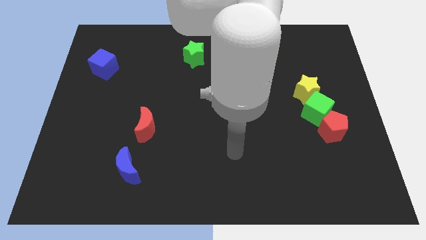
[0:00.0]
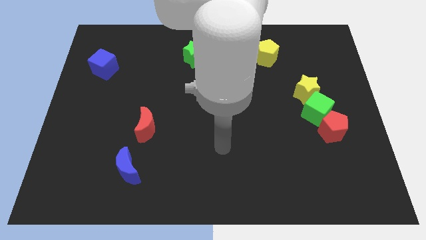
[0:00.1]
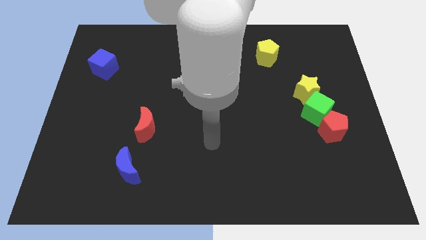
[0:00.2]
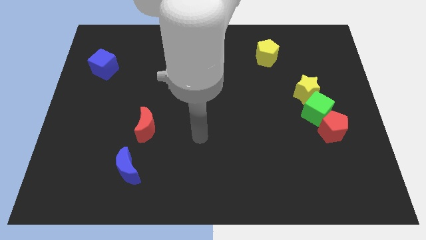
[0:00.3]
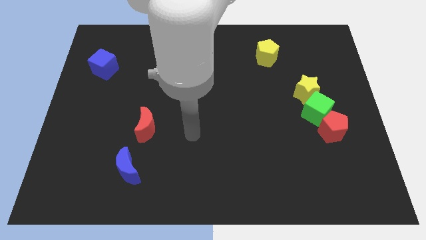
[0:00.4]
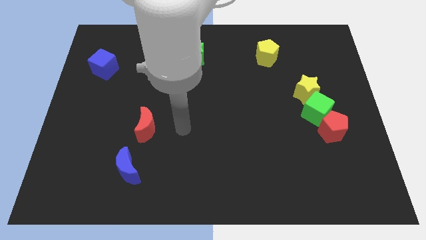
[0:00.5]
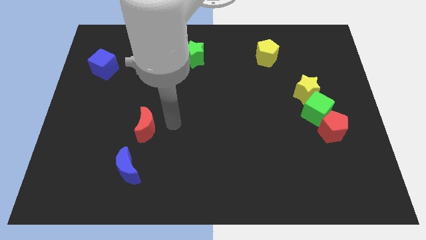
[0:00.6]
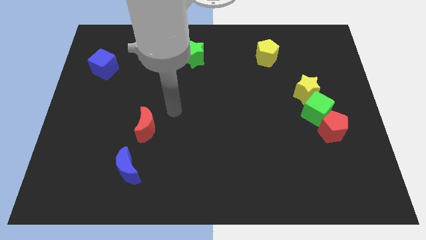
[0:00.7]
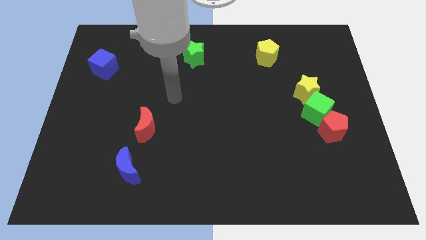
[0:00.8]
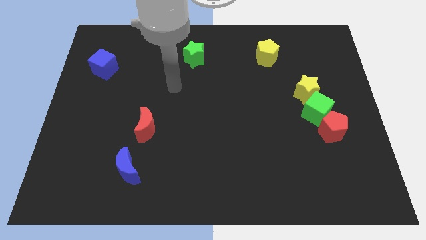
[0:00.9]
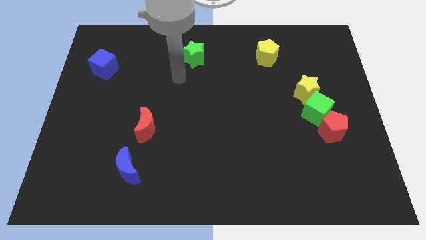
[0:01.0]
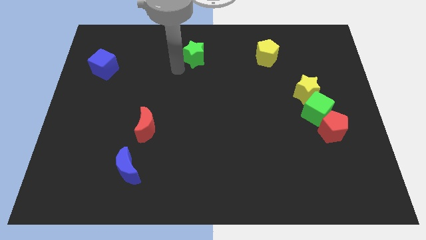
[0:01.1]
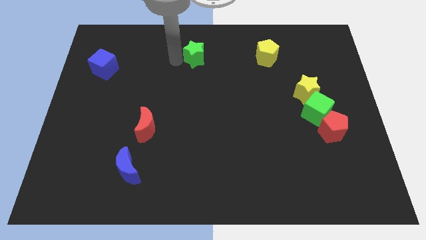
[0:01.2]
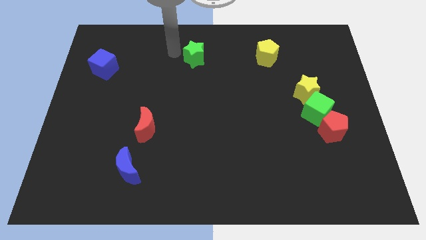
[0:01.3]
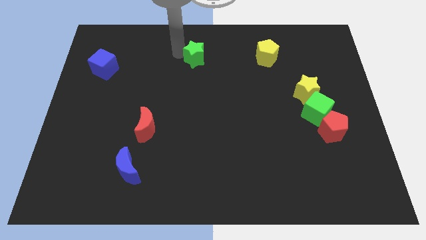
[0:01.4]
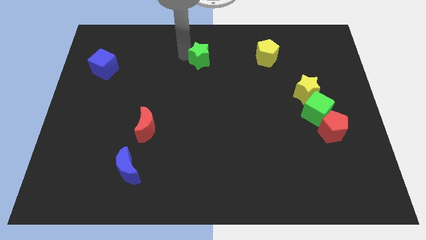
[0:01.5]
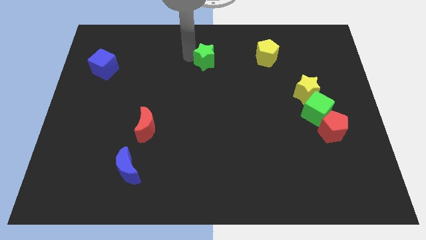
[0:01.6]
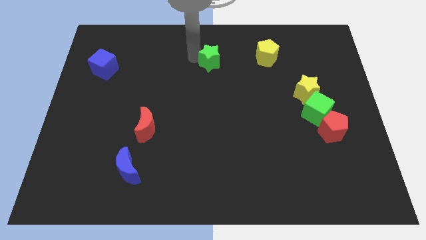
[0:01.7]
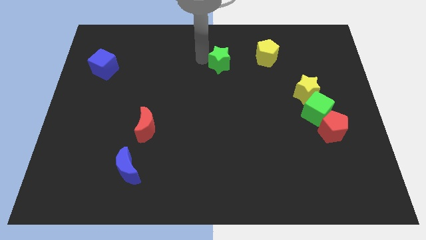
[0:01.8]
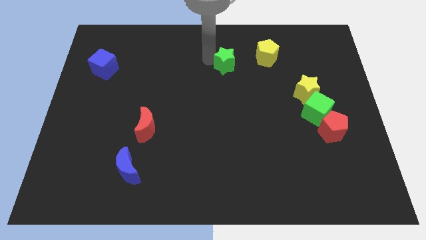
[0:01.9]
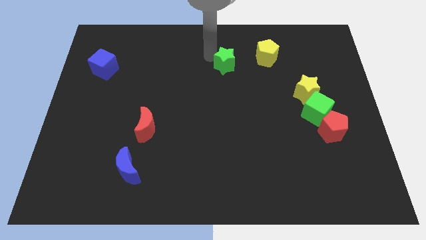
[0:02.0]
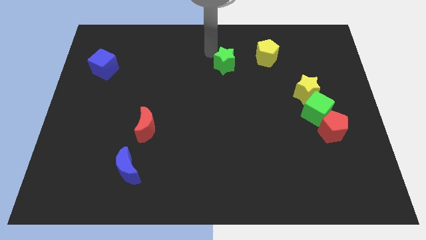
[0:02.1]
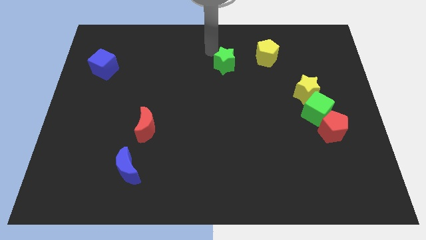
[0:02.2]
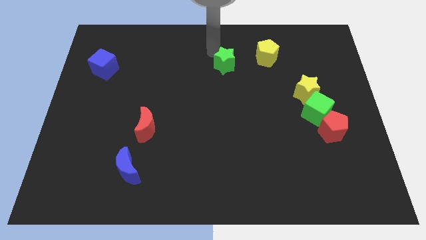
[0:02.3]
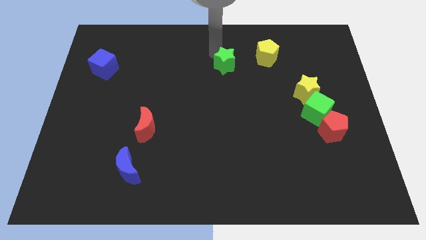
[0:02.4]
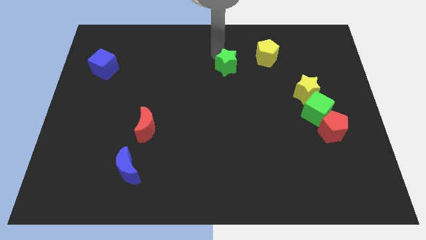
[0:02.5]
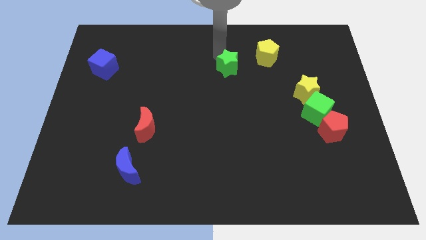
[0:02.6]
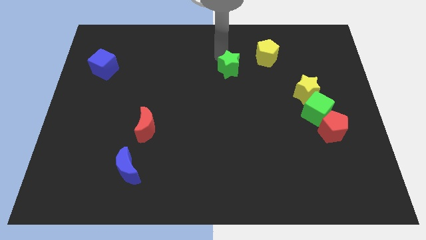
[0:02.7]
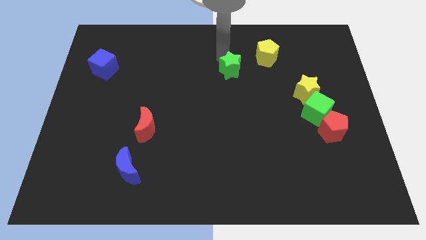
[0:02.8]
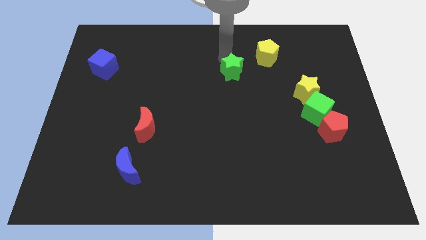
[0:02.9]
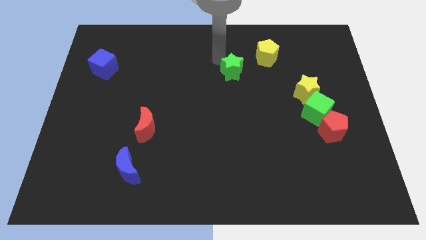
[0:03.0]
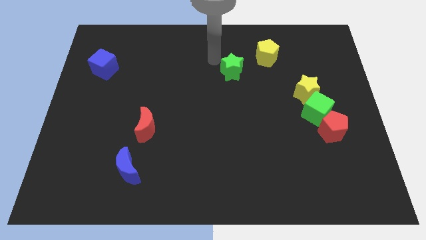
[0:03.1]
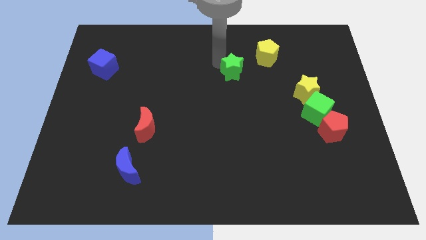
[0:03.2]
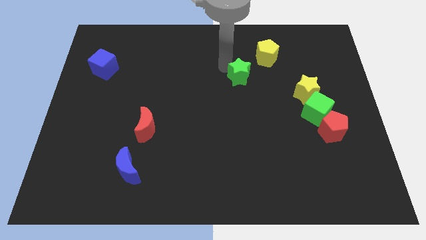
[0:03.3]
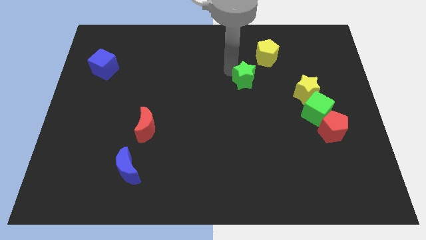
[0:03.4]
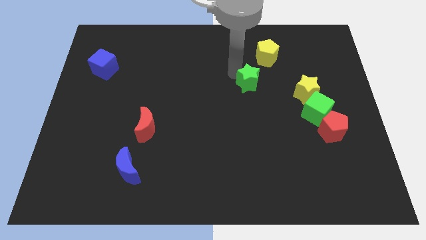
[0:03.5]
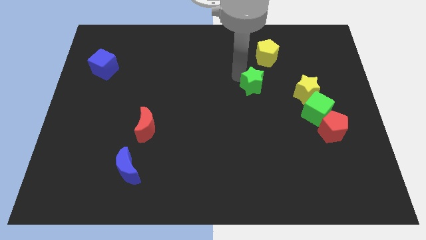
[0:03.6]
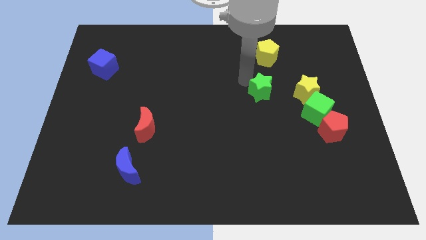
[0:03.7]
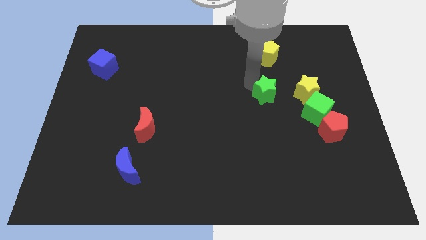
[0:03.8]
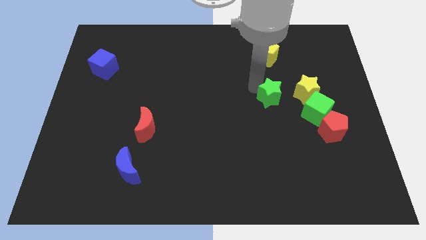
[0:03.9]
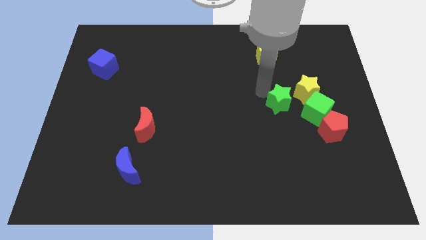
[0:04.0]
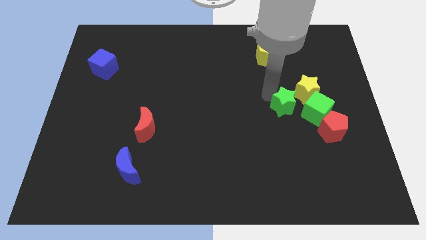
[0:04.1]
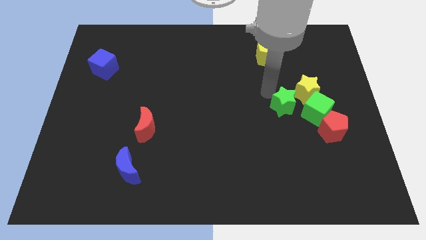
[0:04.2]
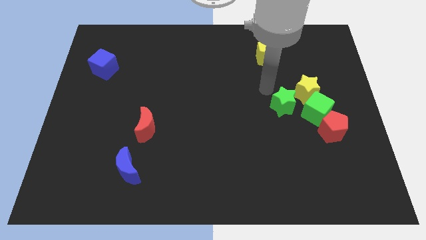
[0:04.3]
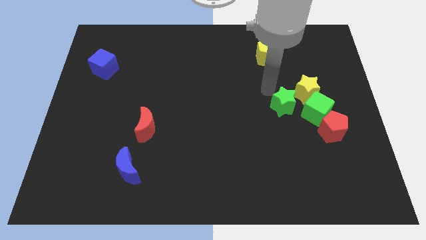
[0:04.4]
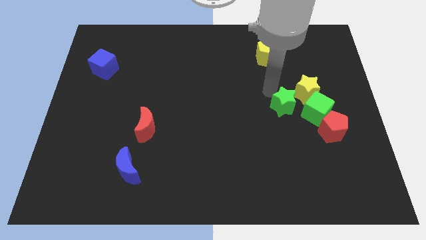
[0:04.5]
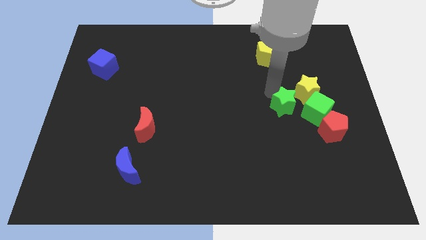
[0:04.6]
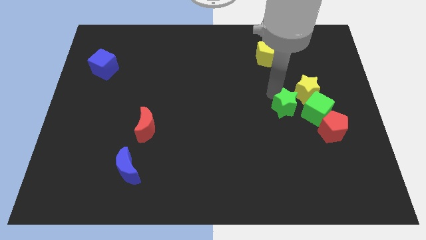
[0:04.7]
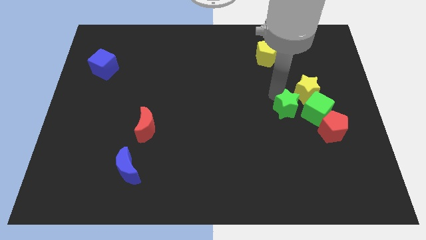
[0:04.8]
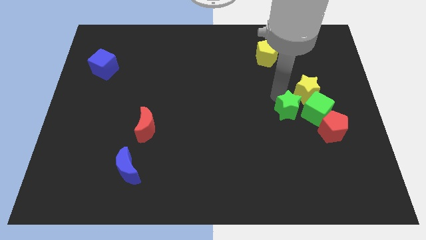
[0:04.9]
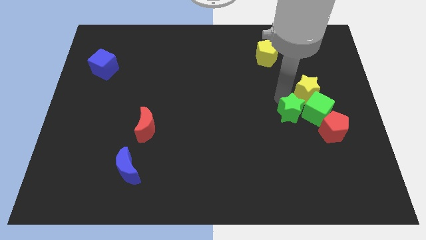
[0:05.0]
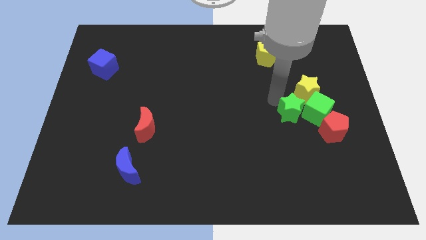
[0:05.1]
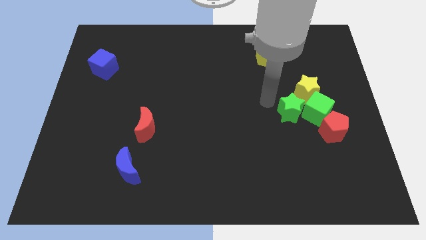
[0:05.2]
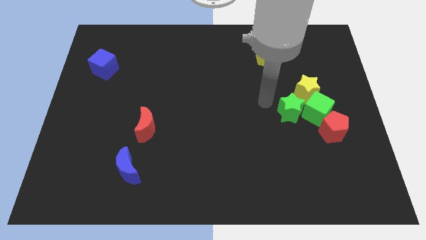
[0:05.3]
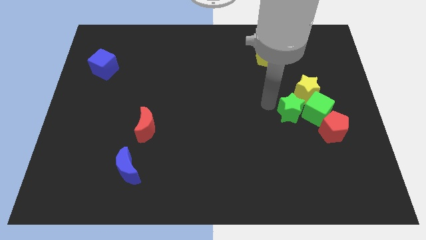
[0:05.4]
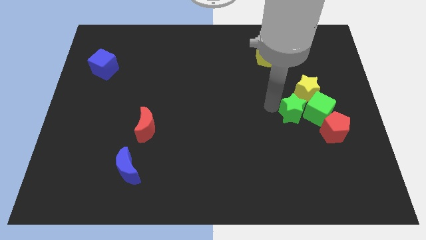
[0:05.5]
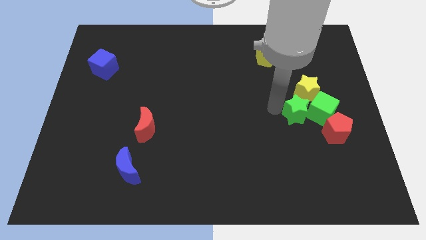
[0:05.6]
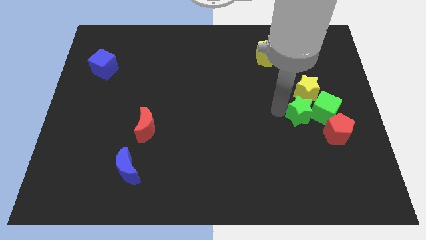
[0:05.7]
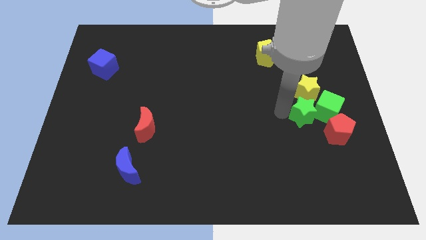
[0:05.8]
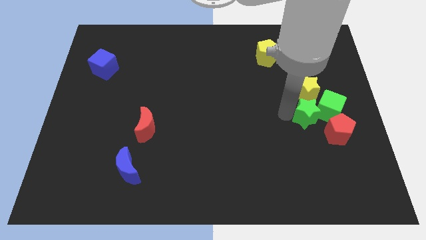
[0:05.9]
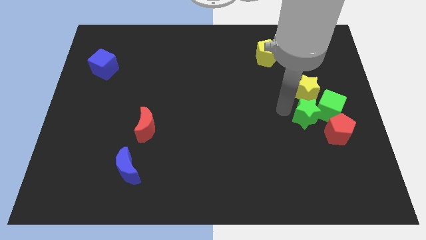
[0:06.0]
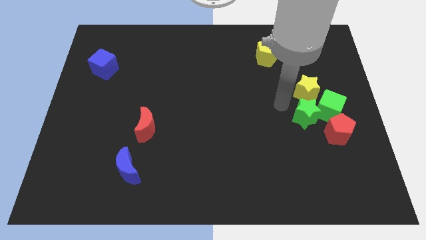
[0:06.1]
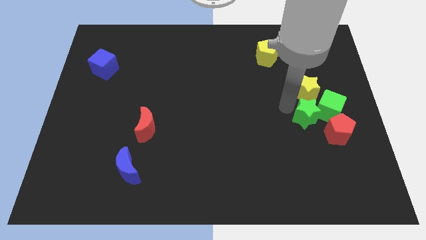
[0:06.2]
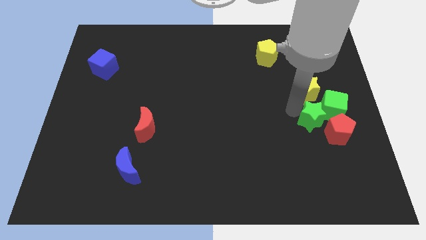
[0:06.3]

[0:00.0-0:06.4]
slide the green star next to the red pentagon
